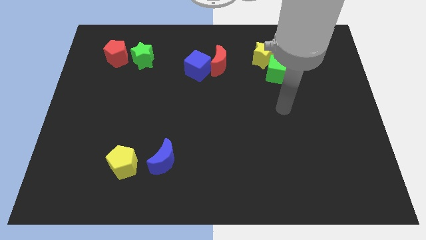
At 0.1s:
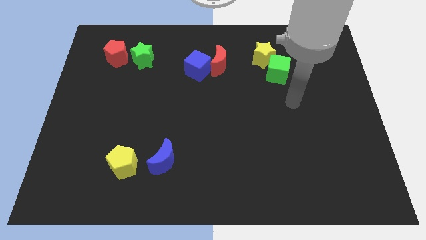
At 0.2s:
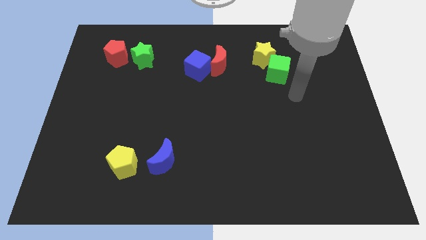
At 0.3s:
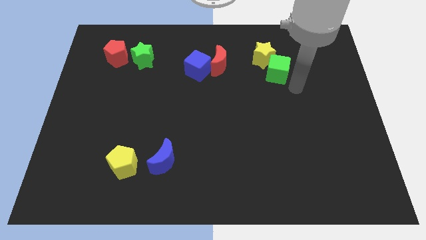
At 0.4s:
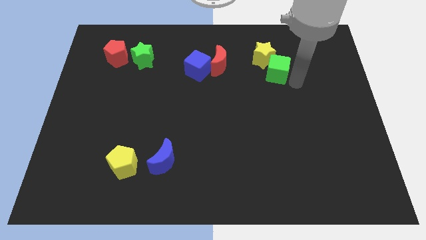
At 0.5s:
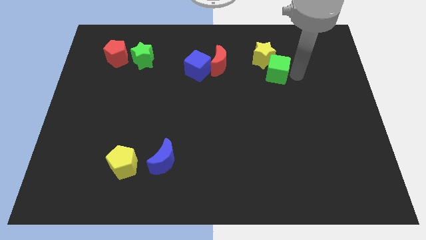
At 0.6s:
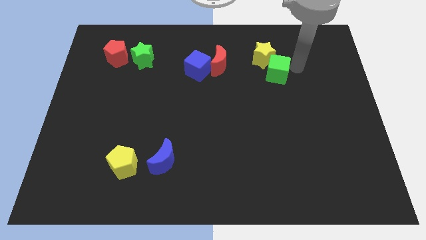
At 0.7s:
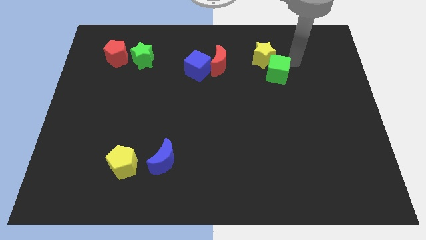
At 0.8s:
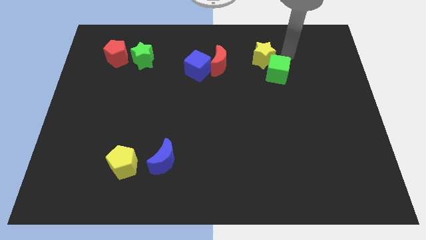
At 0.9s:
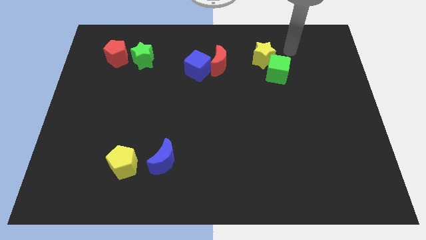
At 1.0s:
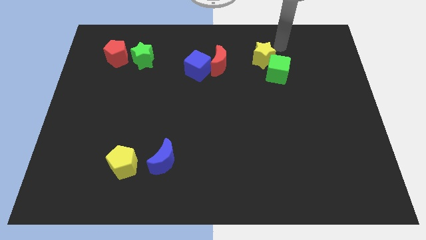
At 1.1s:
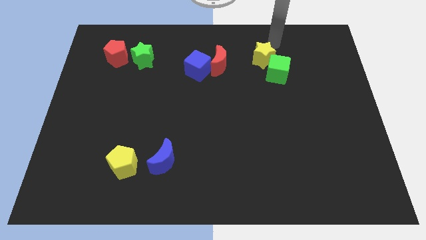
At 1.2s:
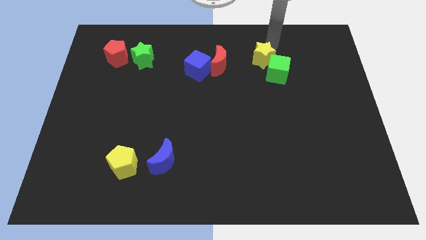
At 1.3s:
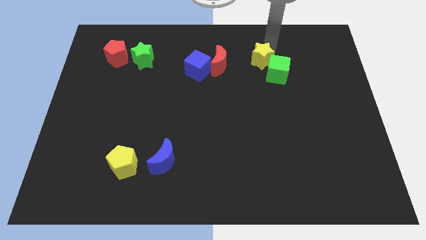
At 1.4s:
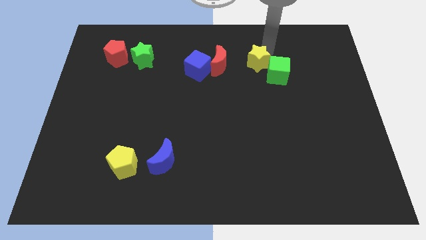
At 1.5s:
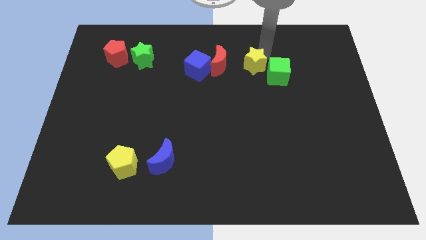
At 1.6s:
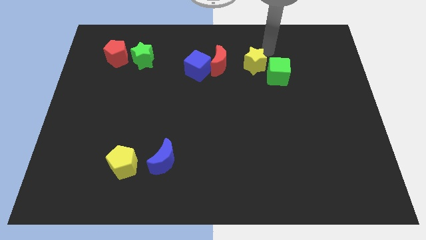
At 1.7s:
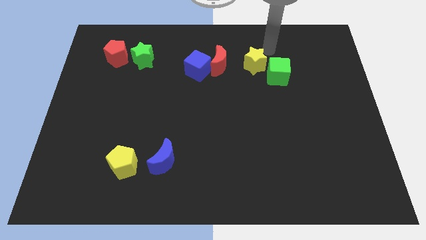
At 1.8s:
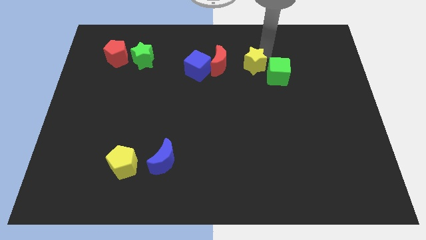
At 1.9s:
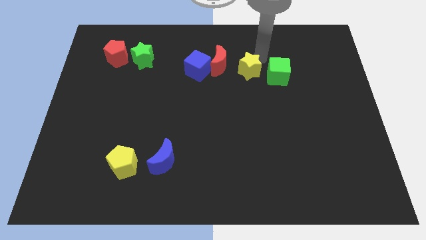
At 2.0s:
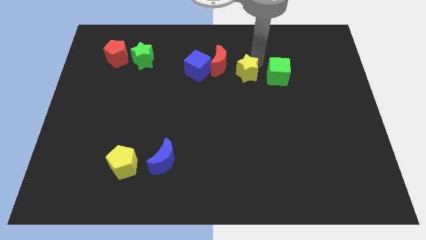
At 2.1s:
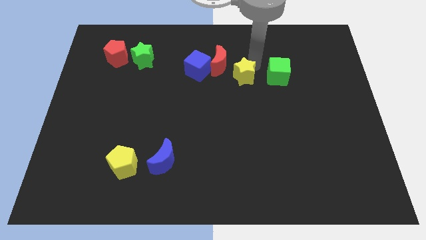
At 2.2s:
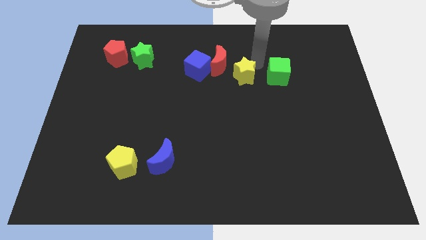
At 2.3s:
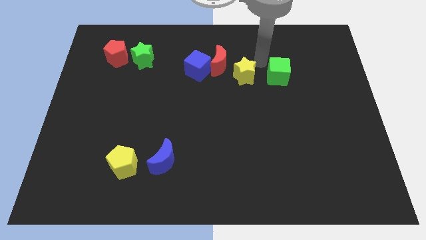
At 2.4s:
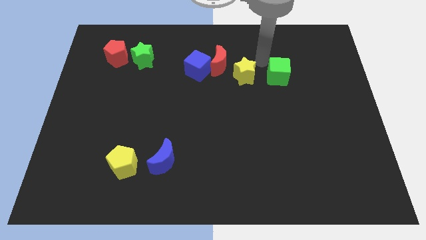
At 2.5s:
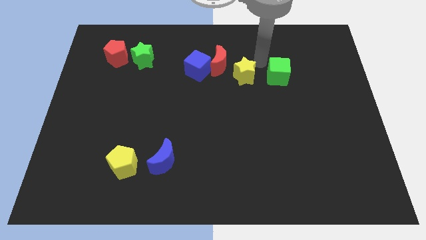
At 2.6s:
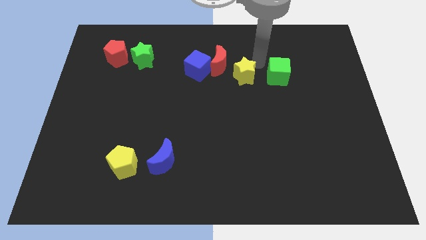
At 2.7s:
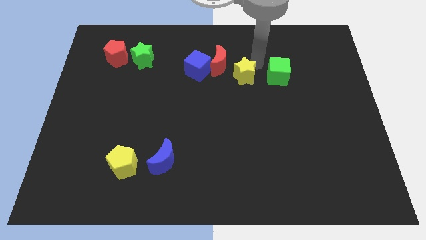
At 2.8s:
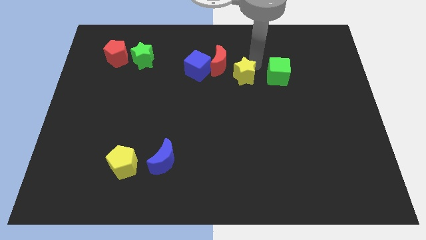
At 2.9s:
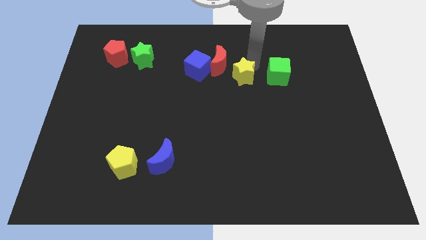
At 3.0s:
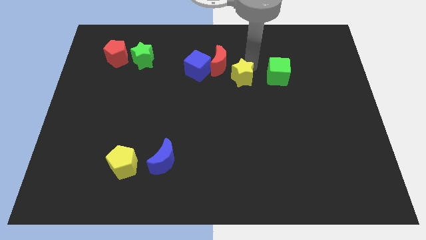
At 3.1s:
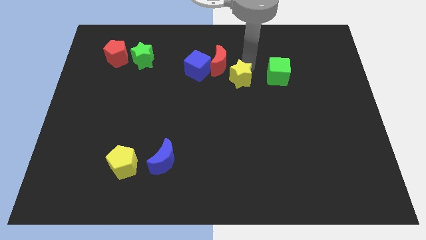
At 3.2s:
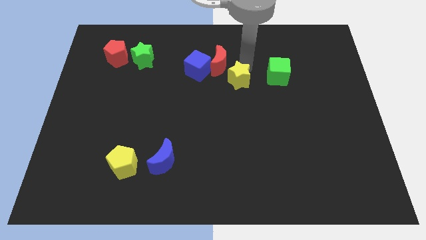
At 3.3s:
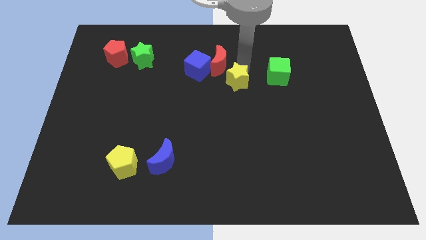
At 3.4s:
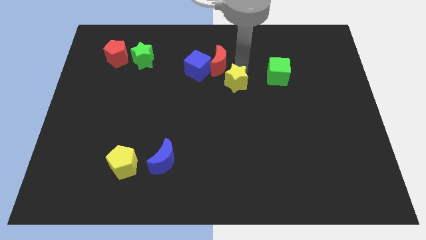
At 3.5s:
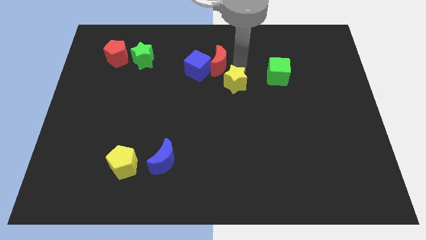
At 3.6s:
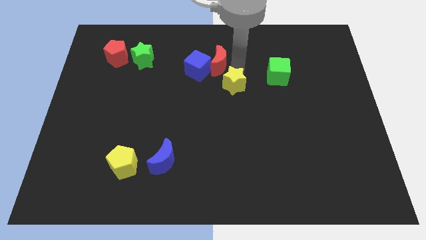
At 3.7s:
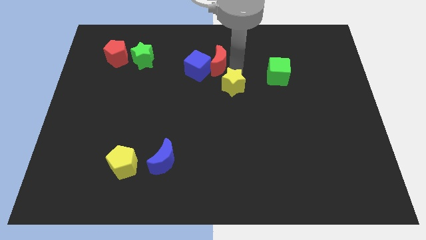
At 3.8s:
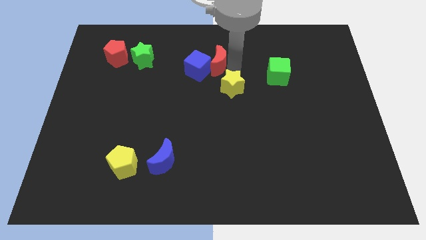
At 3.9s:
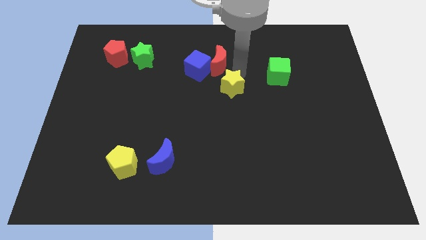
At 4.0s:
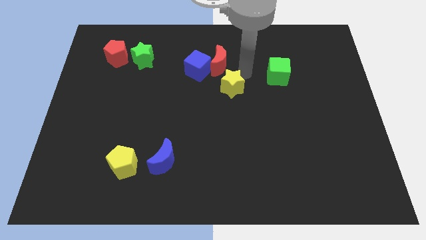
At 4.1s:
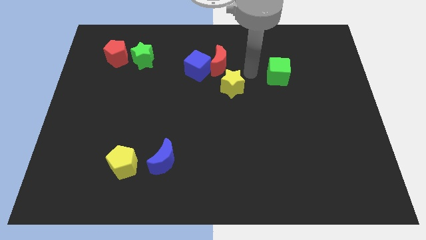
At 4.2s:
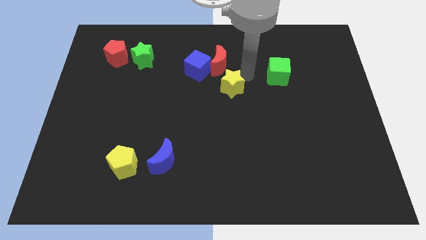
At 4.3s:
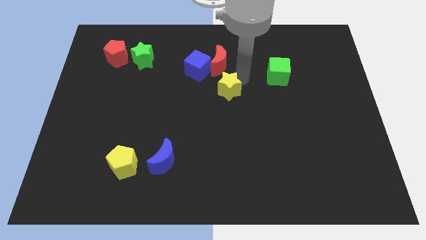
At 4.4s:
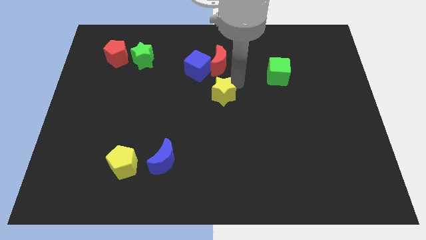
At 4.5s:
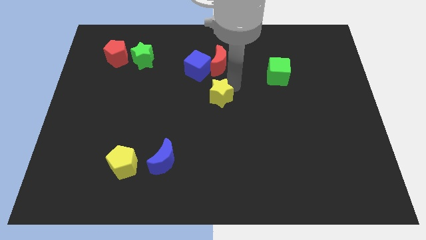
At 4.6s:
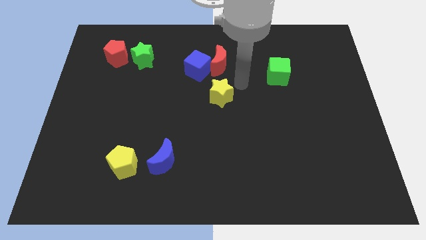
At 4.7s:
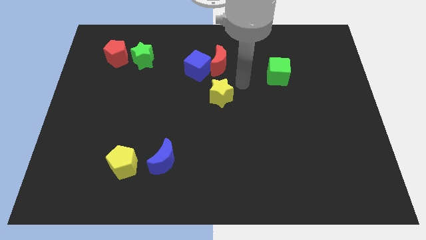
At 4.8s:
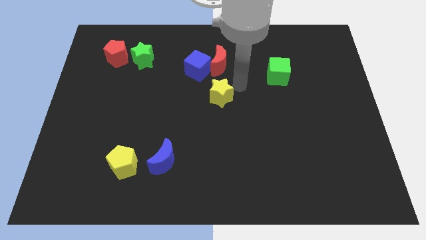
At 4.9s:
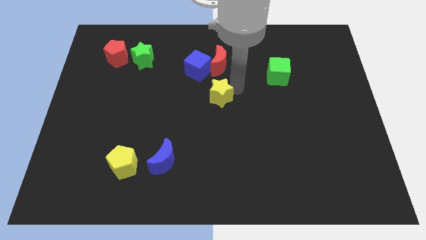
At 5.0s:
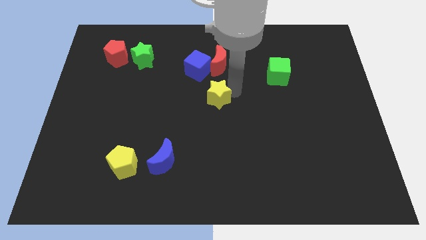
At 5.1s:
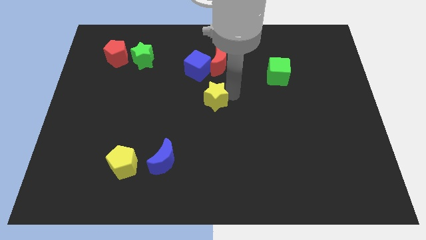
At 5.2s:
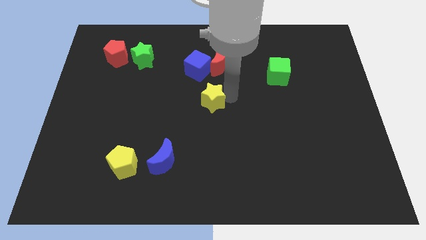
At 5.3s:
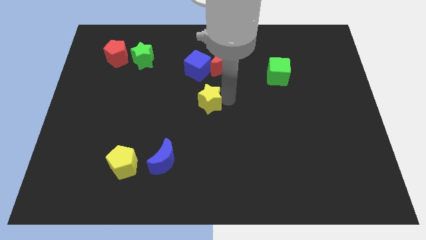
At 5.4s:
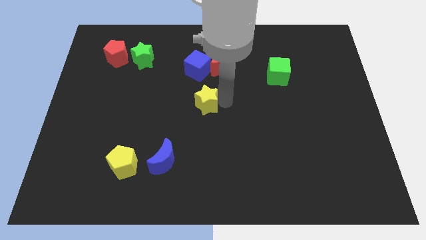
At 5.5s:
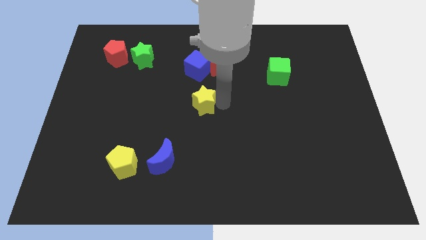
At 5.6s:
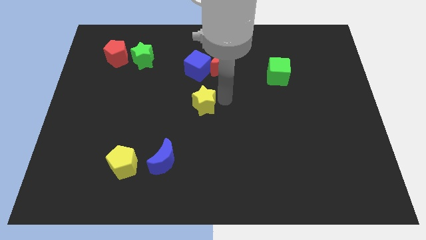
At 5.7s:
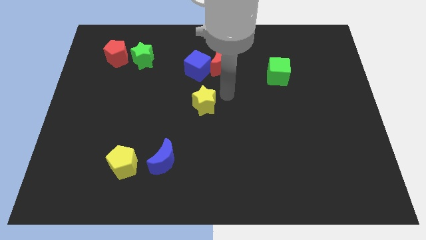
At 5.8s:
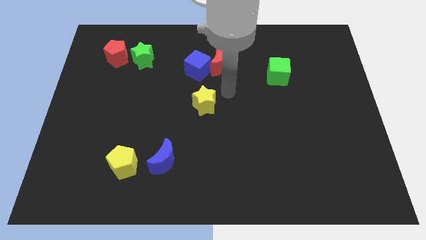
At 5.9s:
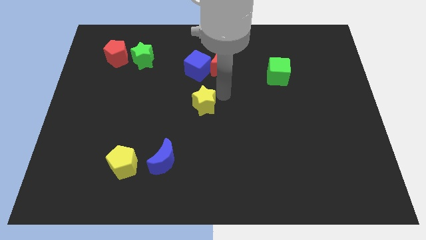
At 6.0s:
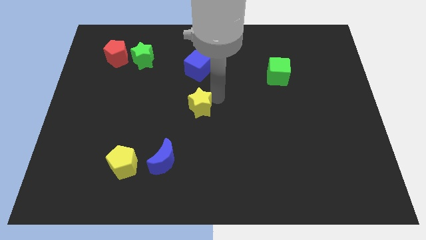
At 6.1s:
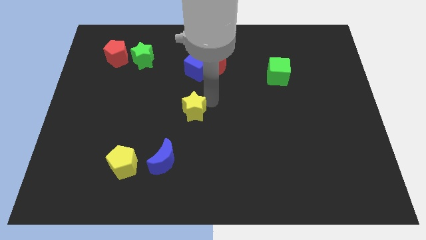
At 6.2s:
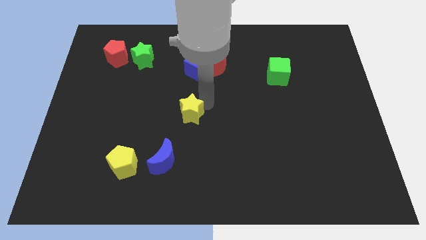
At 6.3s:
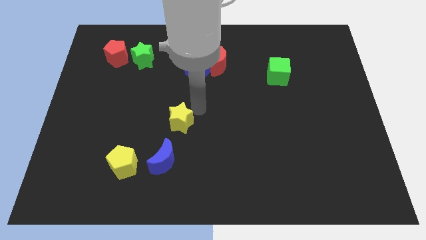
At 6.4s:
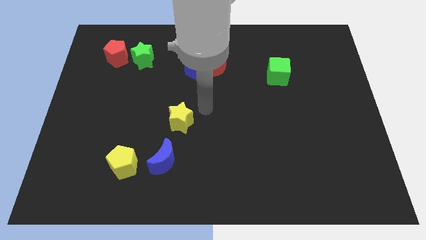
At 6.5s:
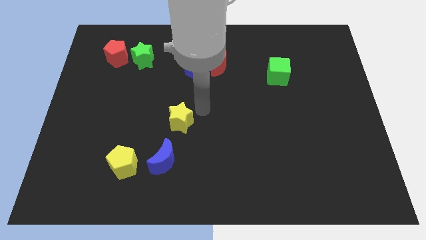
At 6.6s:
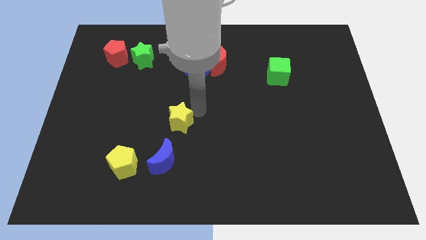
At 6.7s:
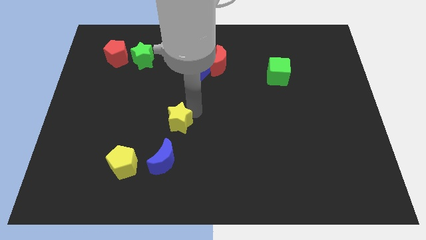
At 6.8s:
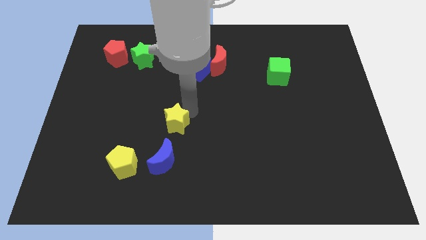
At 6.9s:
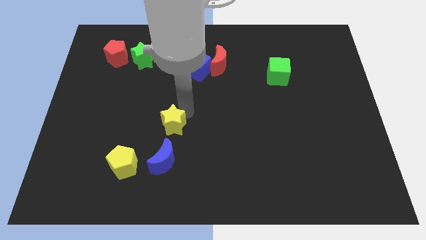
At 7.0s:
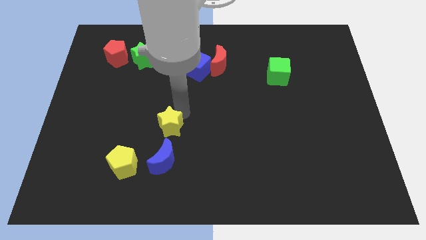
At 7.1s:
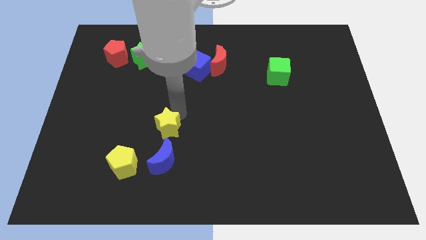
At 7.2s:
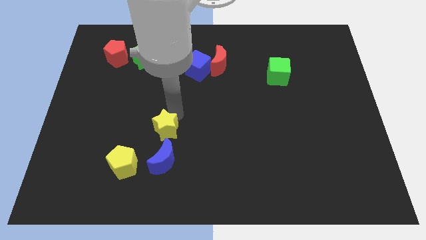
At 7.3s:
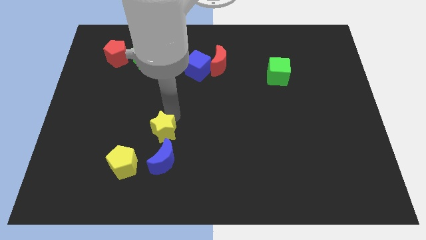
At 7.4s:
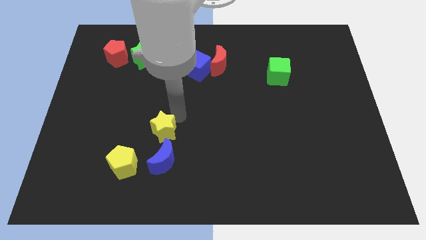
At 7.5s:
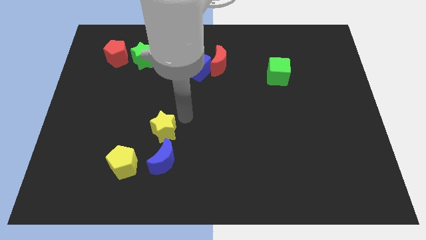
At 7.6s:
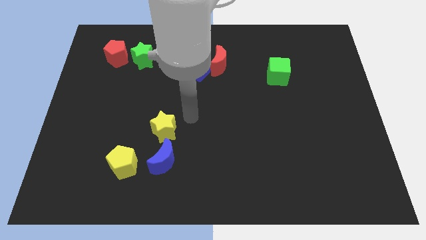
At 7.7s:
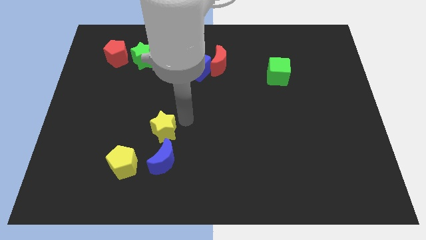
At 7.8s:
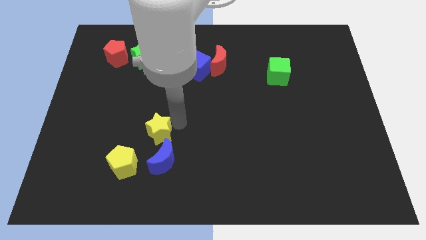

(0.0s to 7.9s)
push the yellow star to the top left of the blue moon

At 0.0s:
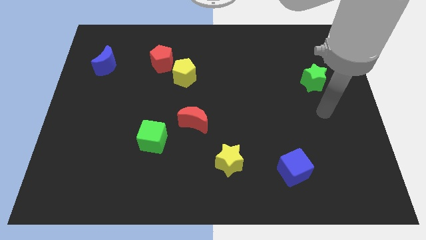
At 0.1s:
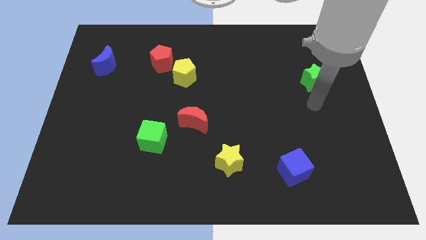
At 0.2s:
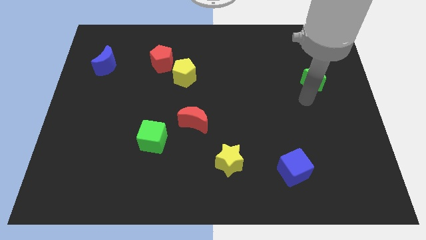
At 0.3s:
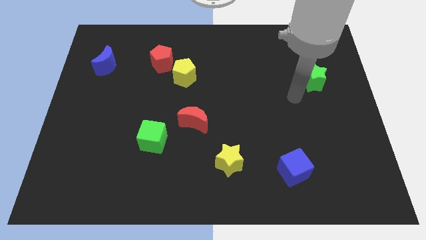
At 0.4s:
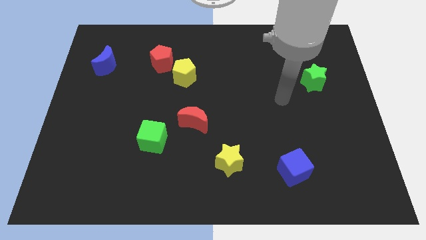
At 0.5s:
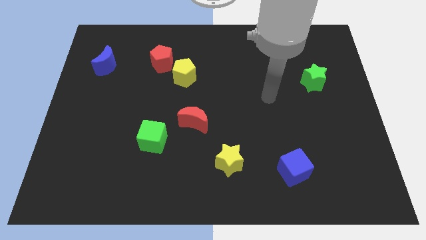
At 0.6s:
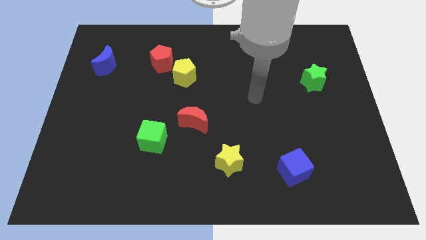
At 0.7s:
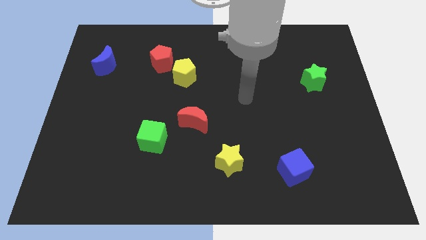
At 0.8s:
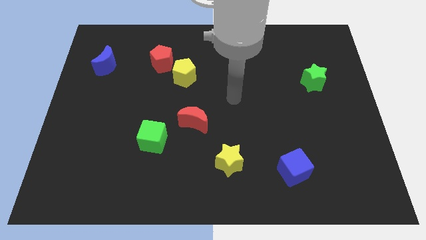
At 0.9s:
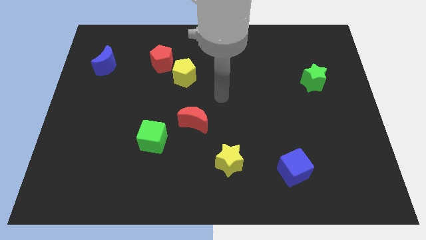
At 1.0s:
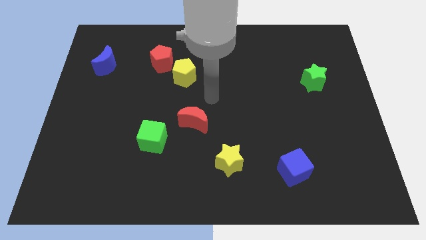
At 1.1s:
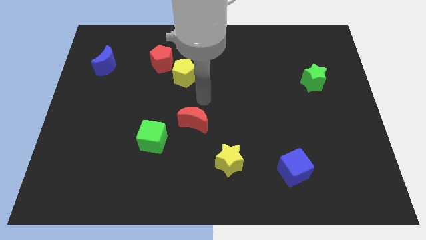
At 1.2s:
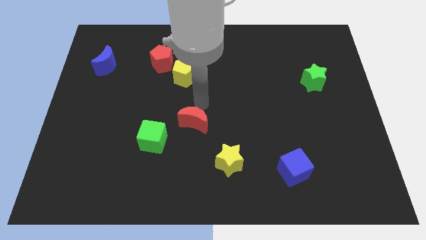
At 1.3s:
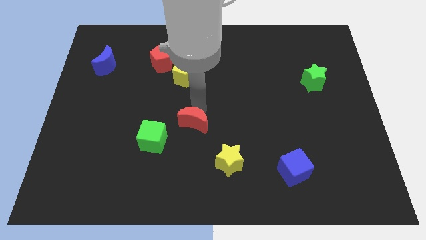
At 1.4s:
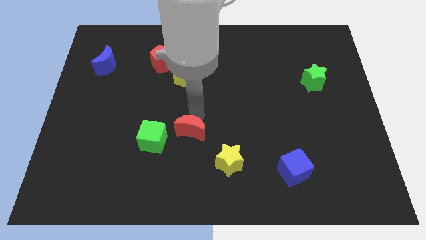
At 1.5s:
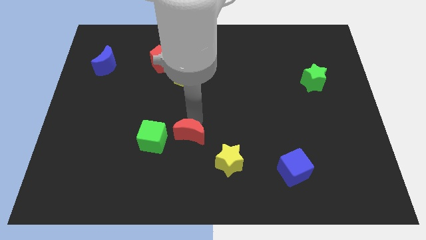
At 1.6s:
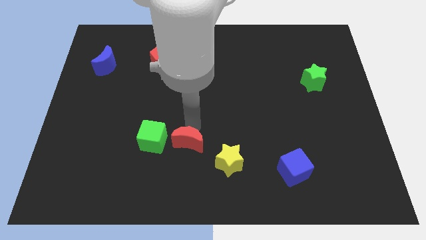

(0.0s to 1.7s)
push the red moon just left of the yellow star
